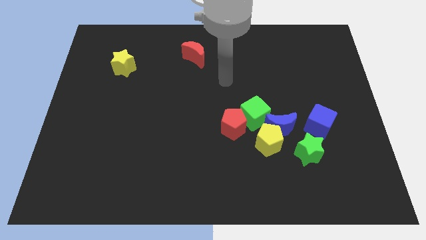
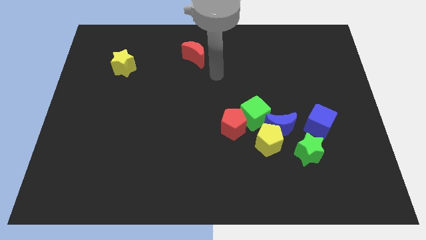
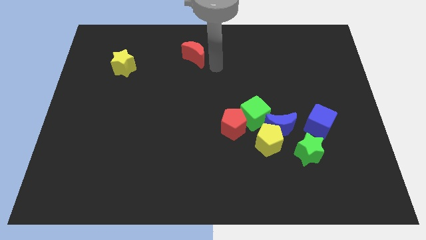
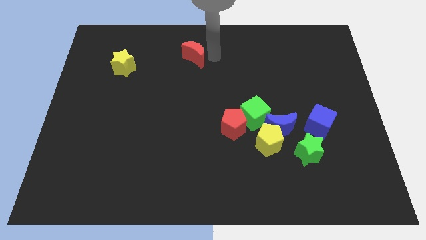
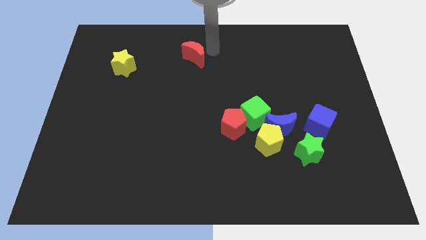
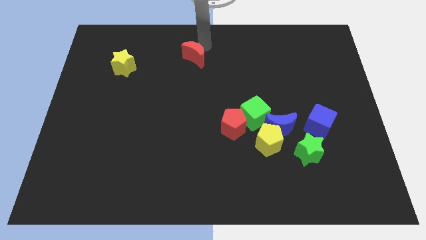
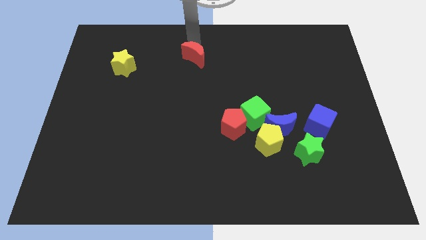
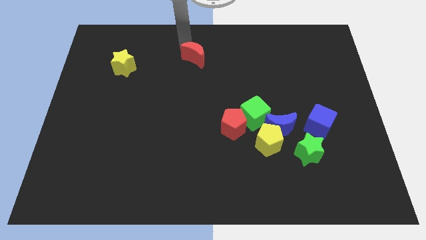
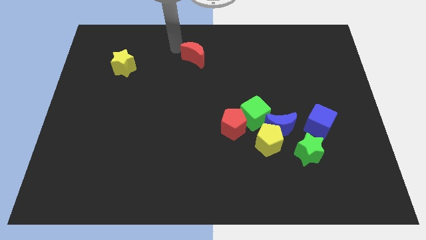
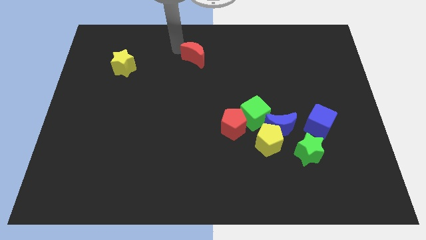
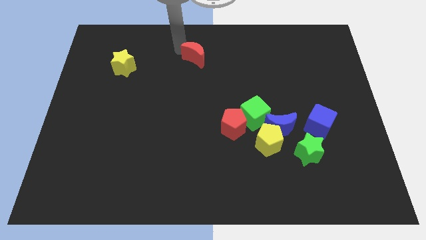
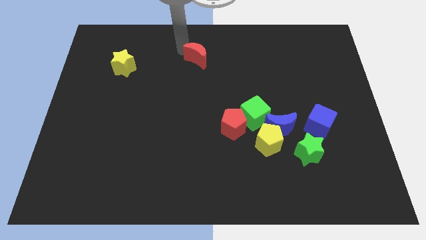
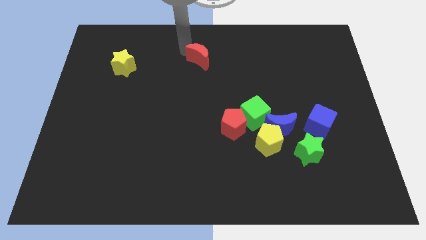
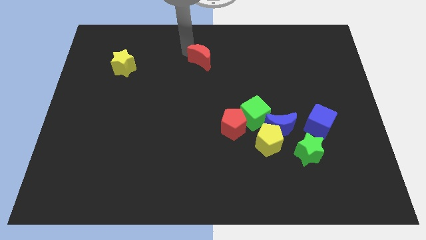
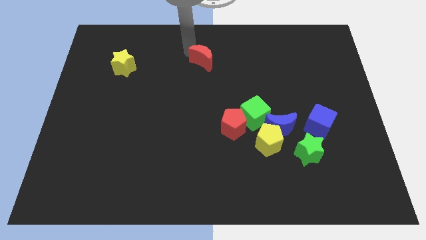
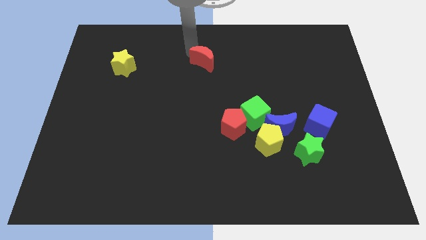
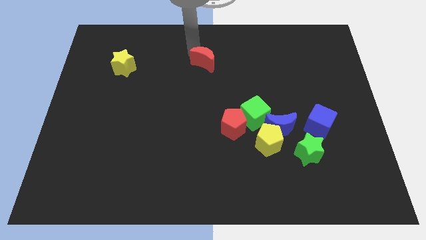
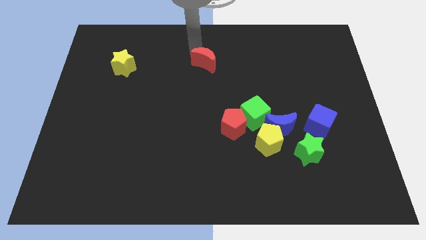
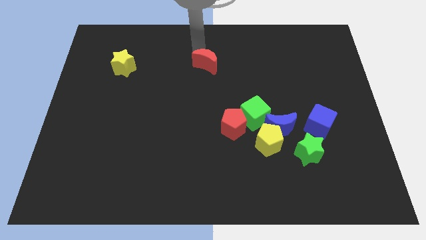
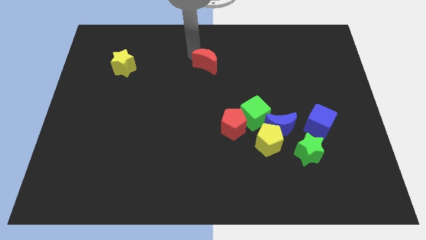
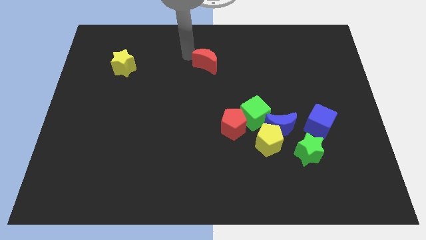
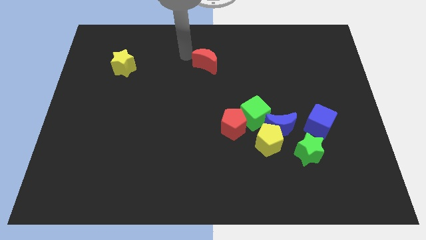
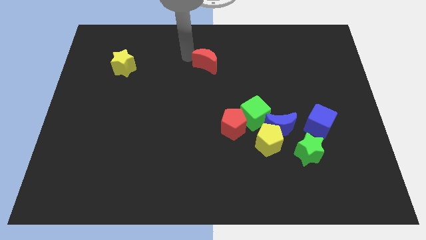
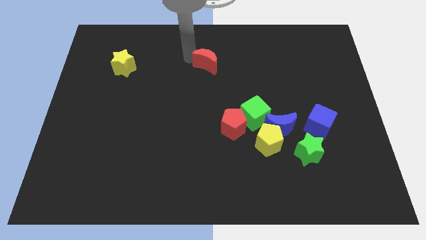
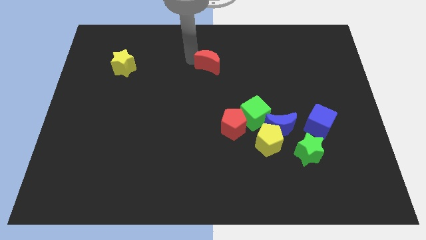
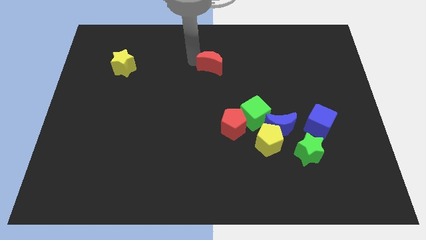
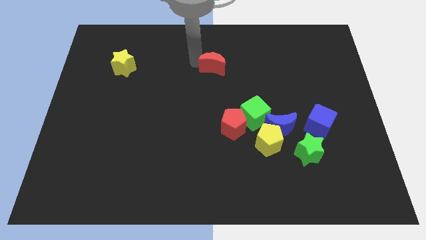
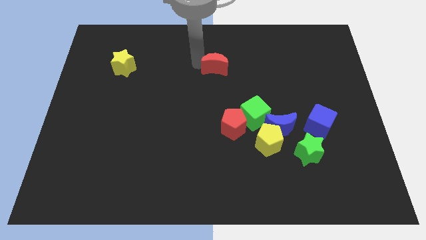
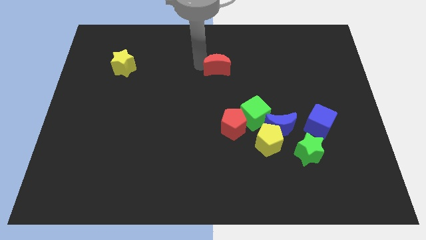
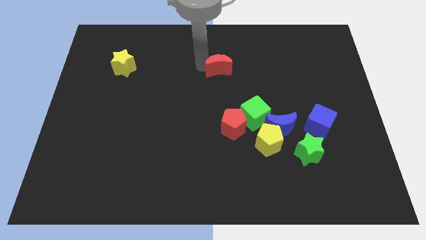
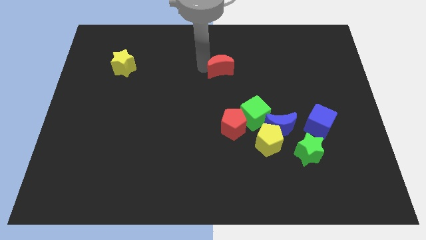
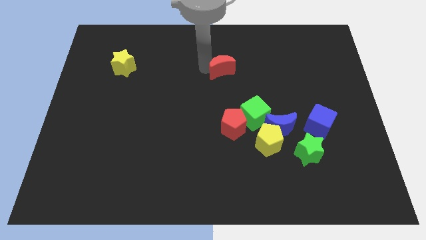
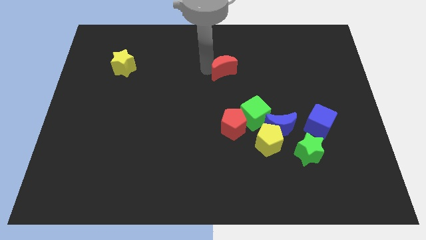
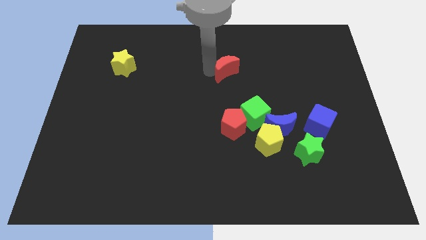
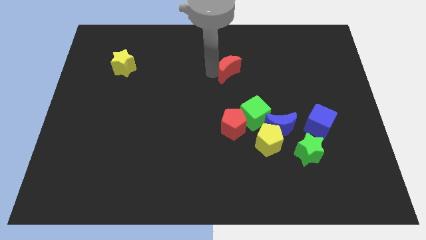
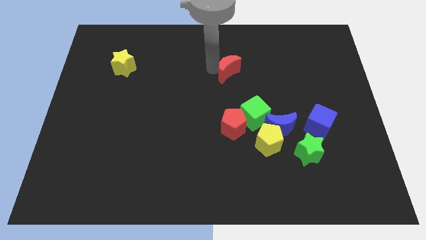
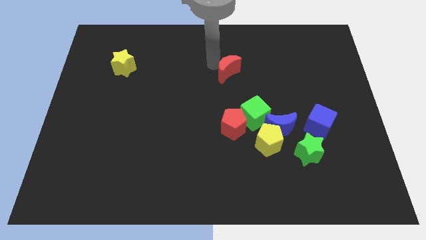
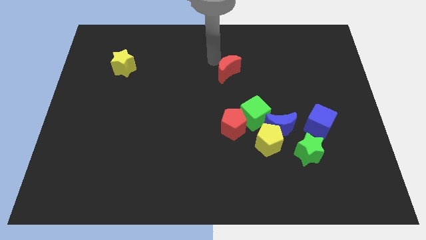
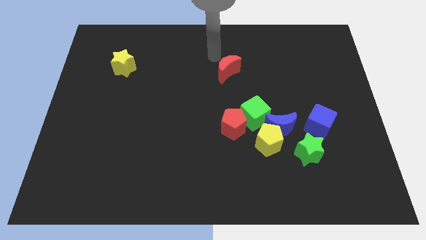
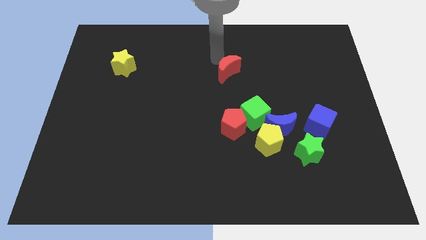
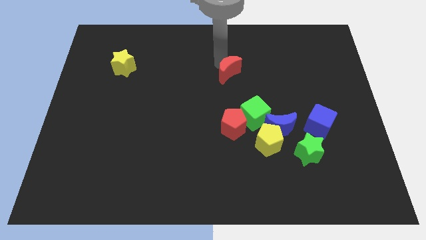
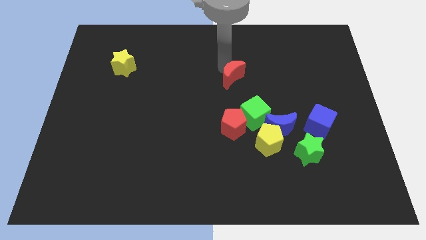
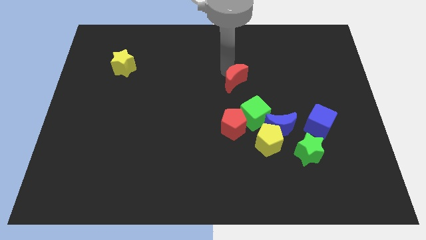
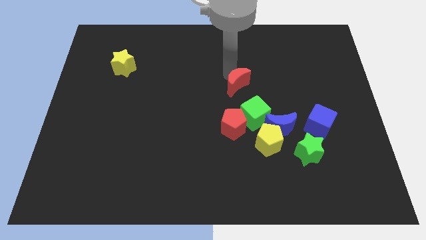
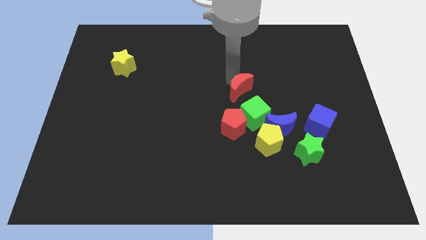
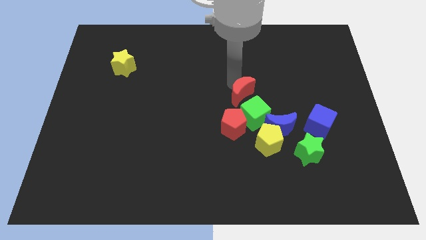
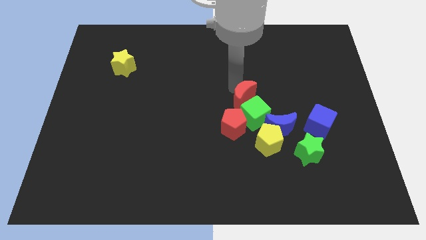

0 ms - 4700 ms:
put the red moon to the green cube

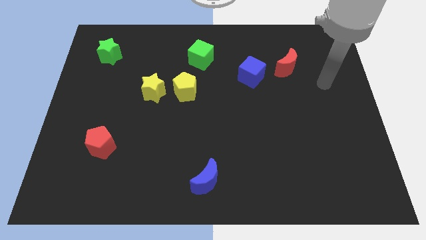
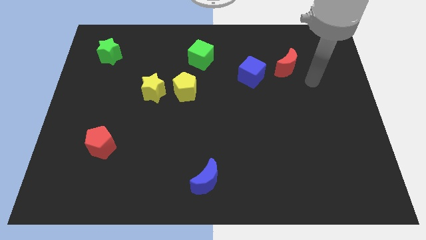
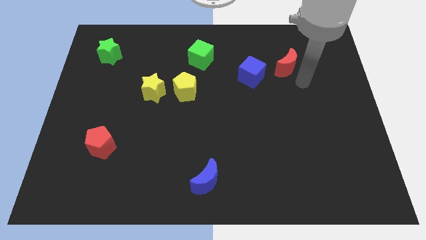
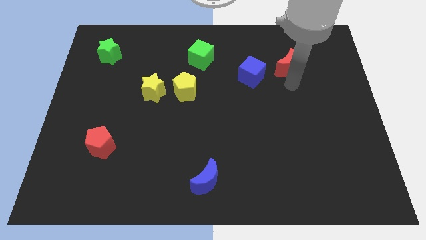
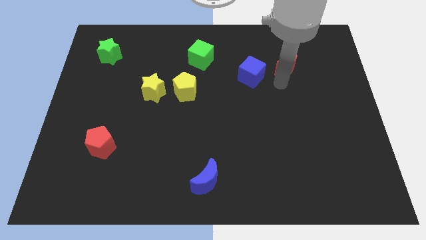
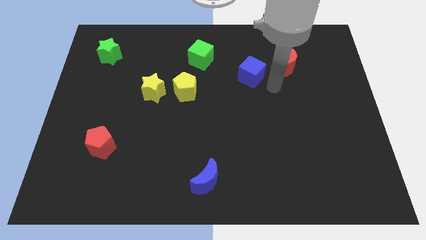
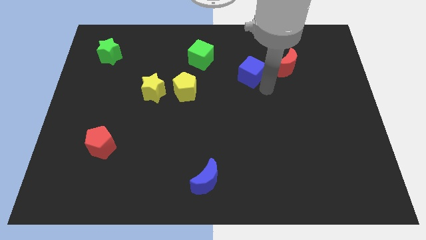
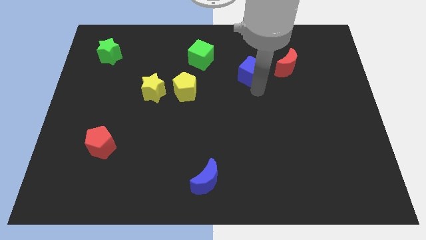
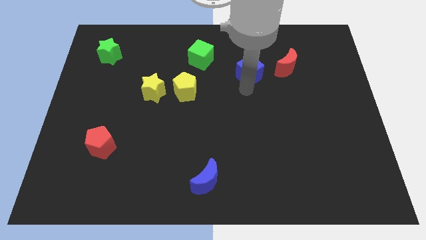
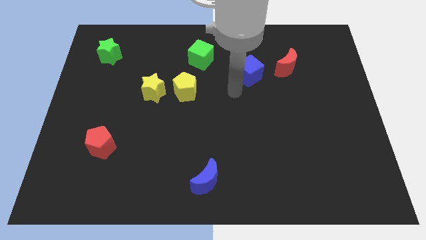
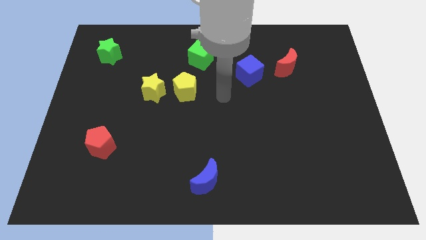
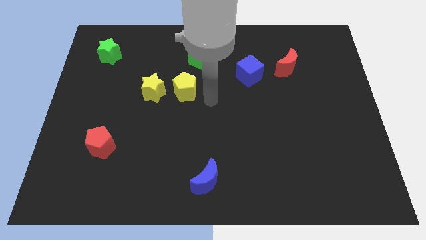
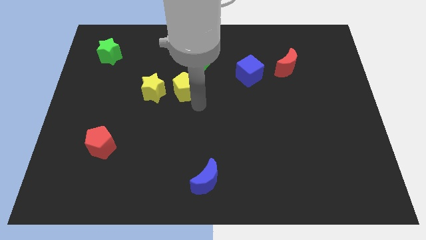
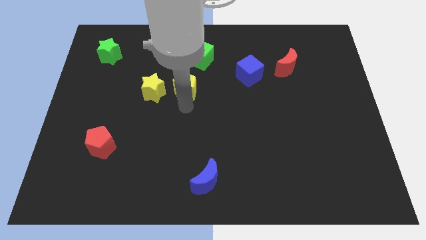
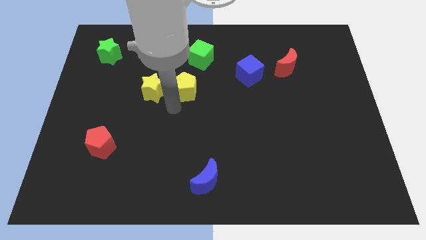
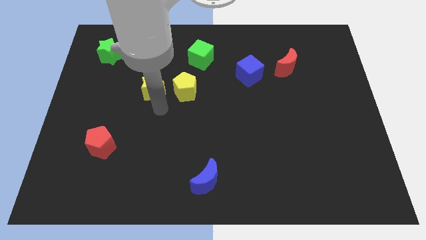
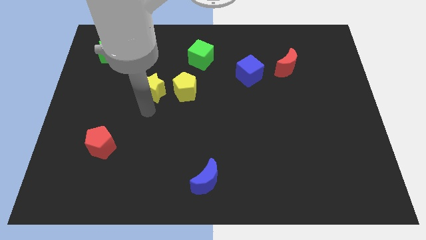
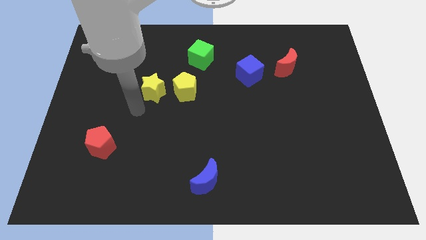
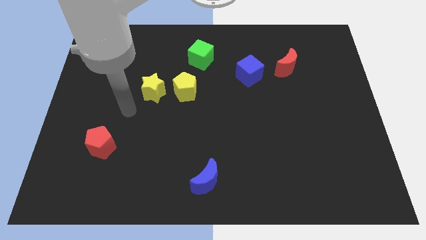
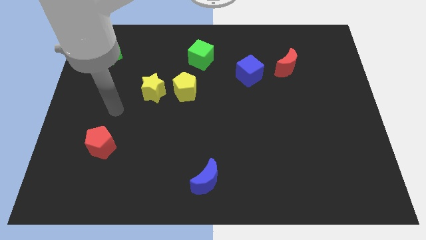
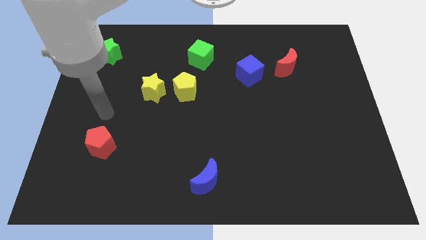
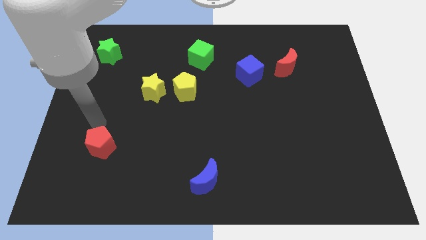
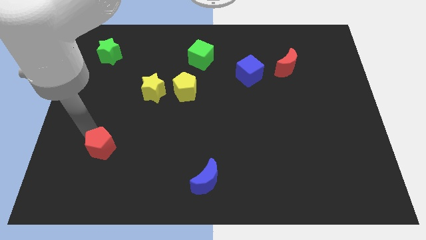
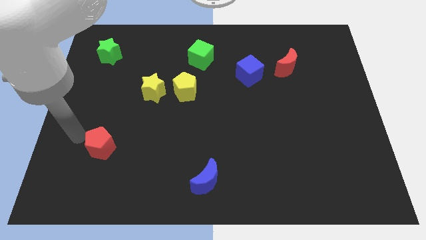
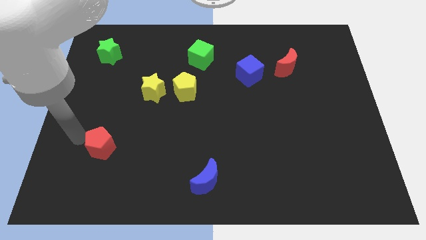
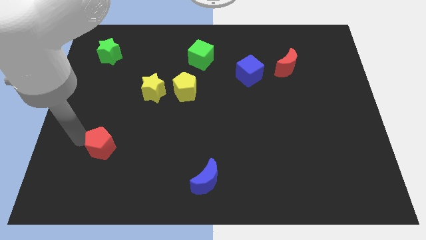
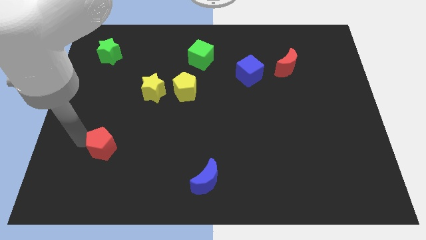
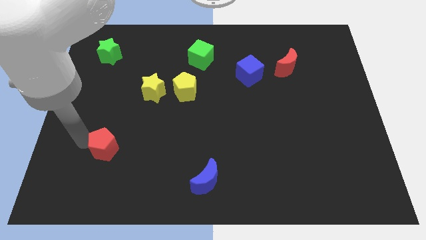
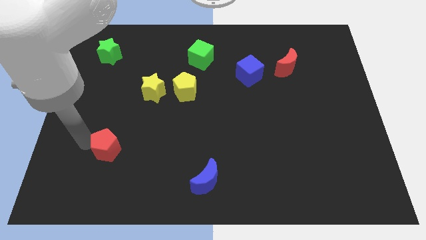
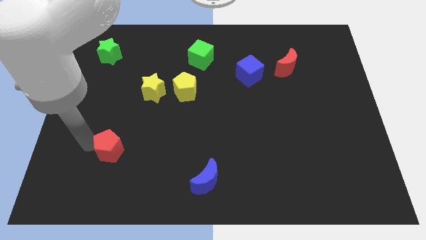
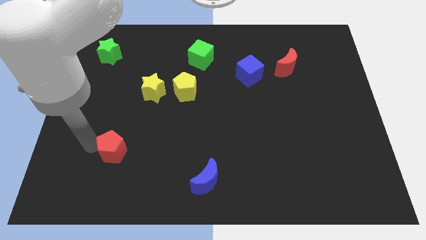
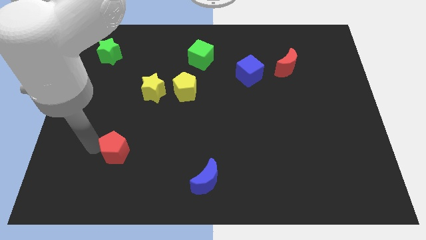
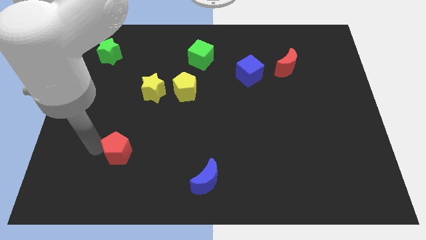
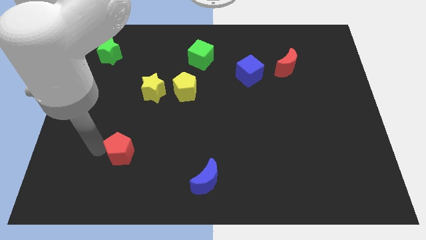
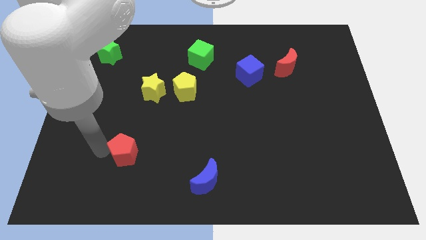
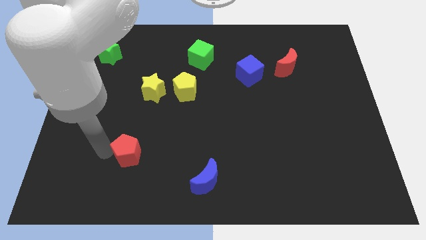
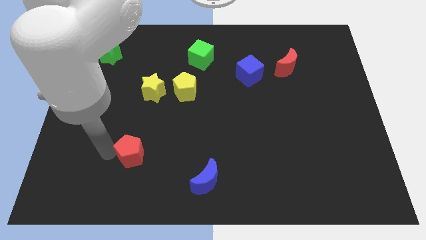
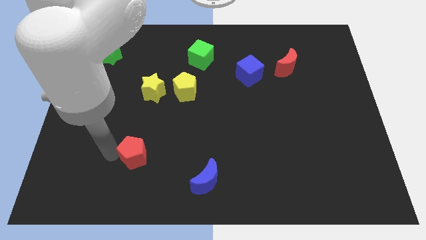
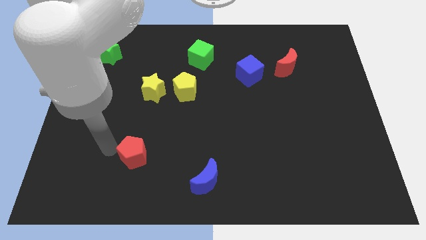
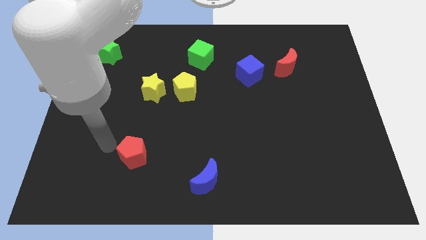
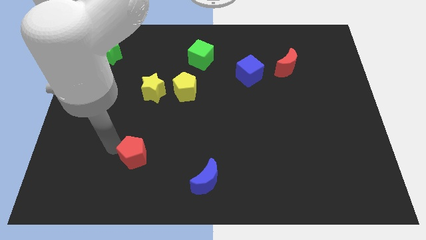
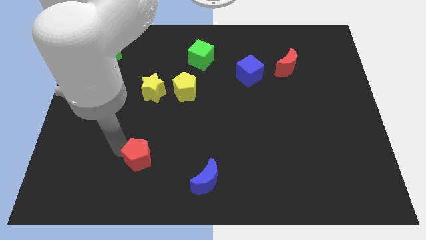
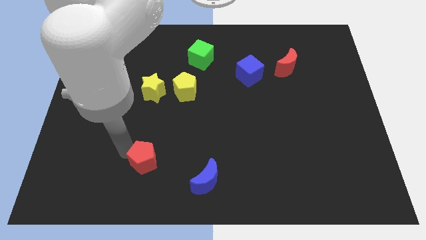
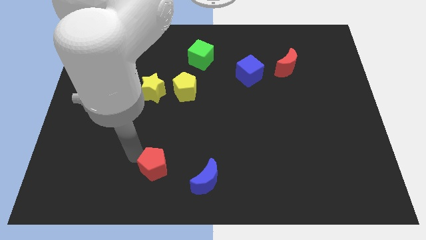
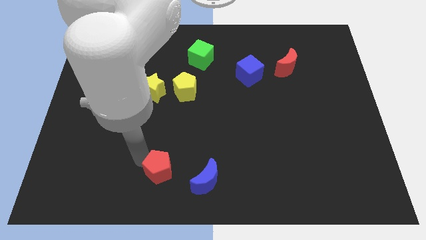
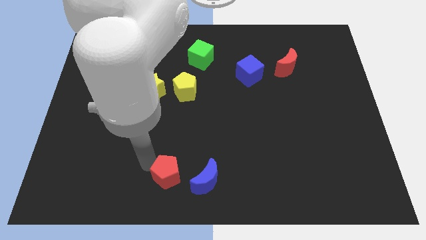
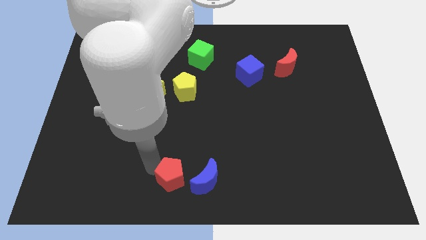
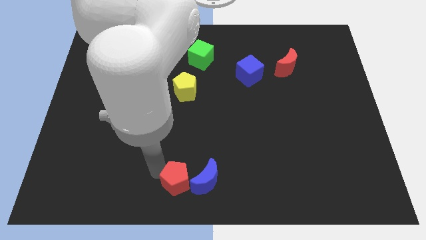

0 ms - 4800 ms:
slide the red pentagon next to the blue moon
